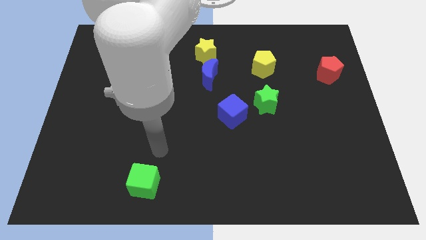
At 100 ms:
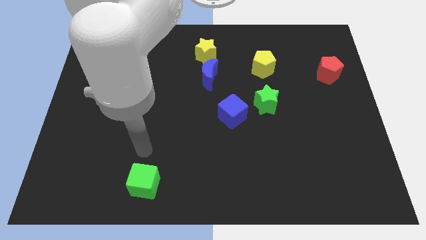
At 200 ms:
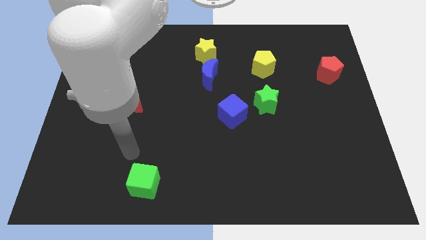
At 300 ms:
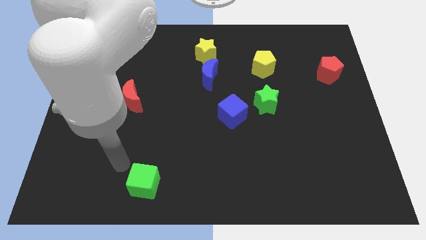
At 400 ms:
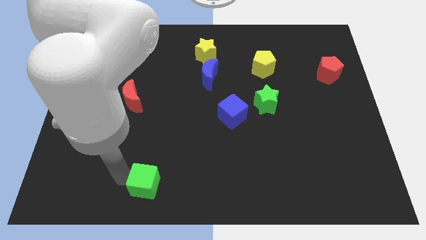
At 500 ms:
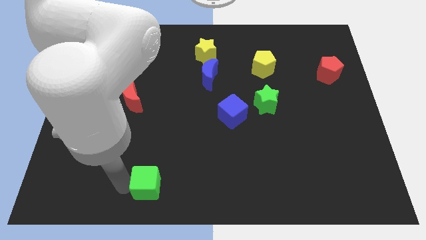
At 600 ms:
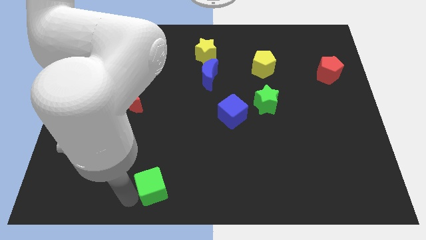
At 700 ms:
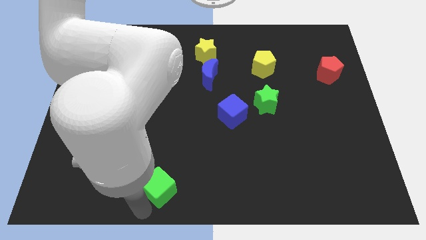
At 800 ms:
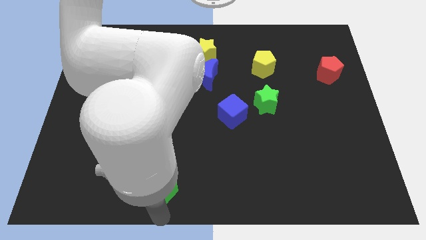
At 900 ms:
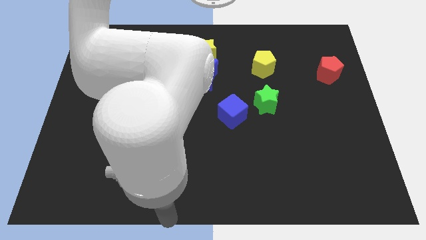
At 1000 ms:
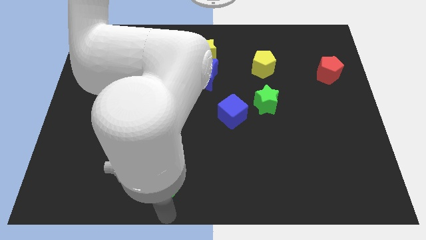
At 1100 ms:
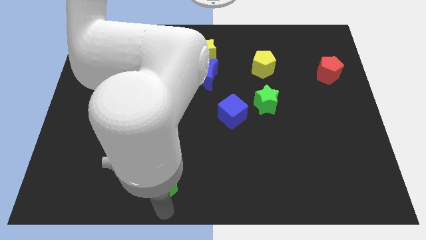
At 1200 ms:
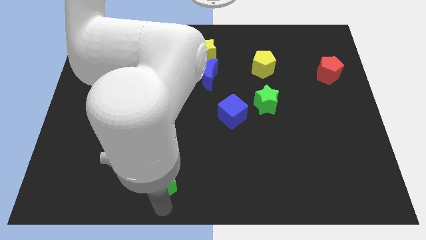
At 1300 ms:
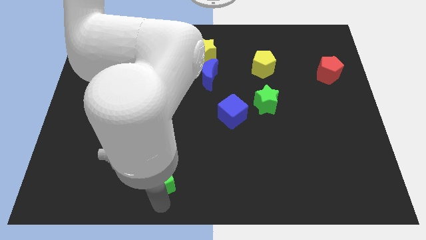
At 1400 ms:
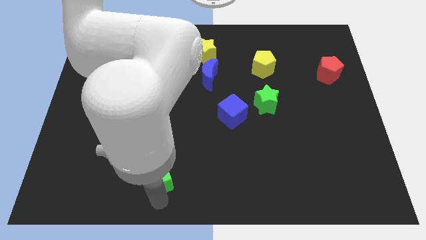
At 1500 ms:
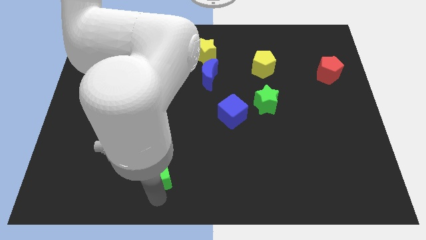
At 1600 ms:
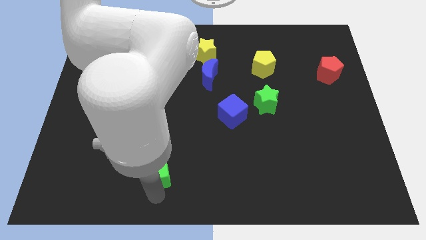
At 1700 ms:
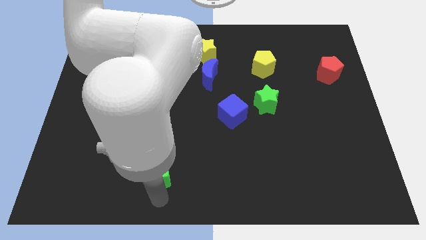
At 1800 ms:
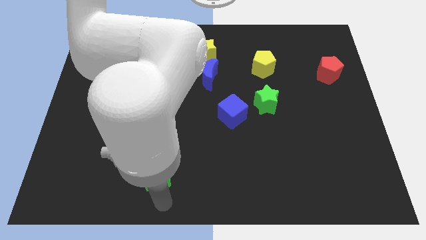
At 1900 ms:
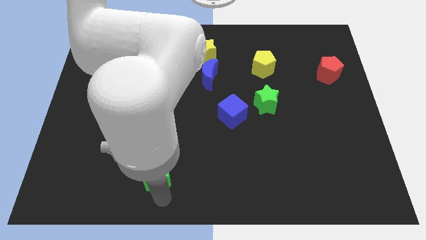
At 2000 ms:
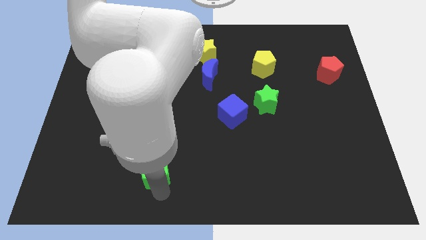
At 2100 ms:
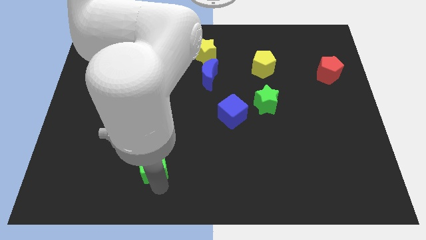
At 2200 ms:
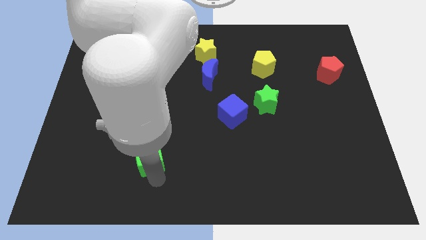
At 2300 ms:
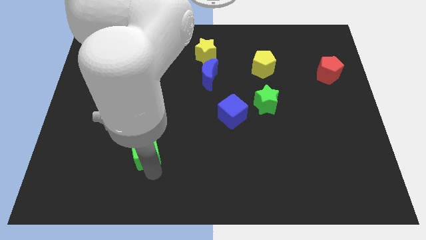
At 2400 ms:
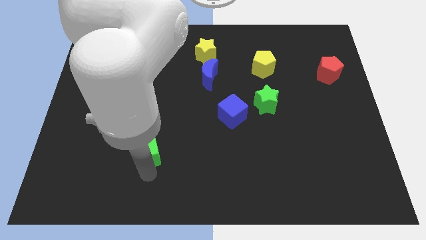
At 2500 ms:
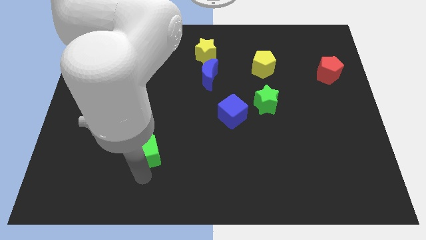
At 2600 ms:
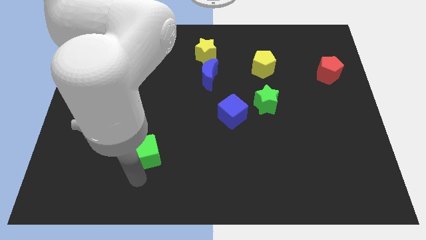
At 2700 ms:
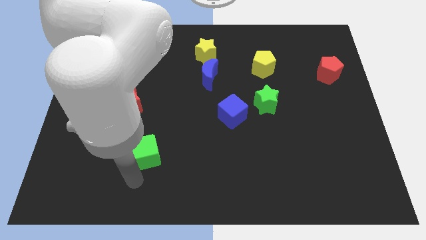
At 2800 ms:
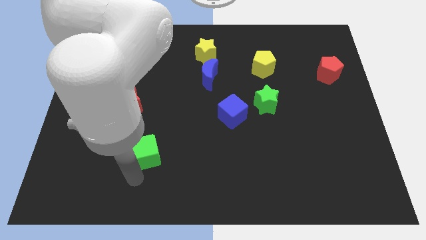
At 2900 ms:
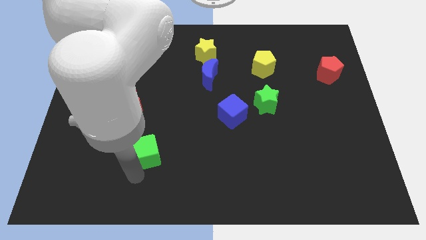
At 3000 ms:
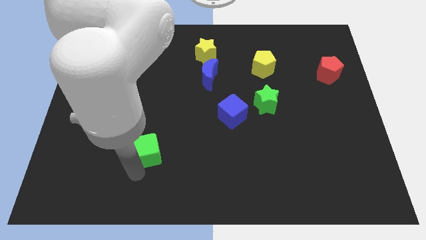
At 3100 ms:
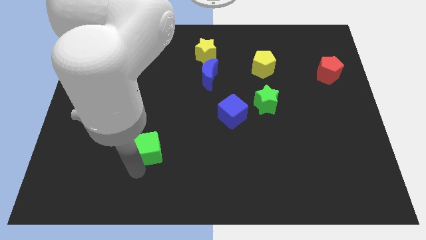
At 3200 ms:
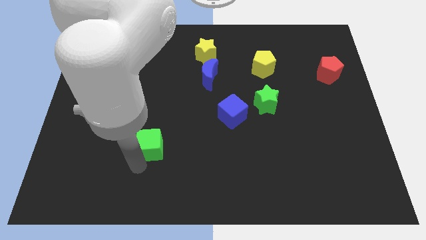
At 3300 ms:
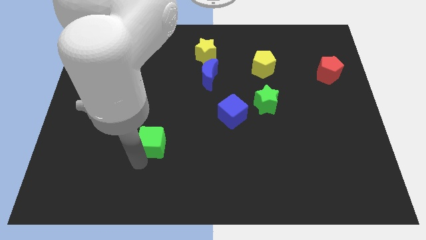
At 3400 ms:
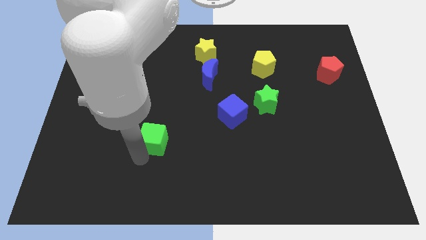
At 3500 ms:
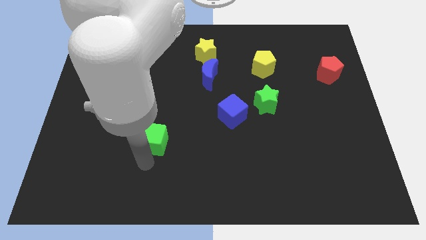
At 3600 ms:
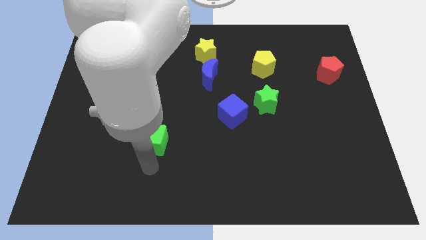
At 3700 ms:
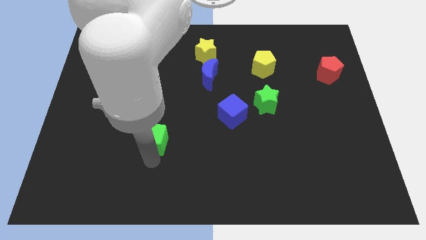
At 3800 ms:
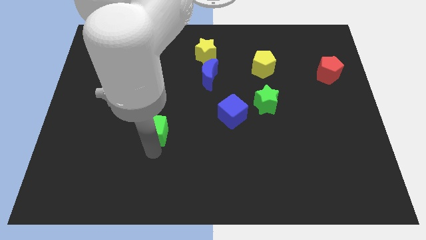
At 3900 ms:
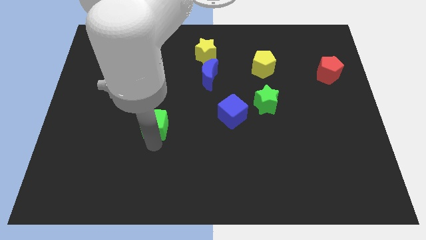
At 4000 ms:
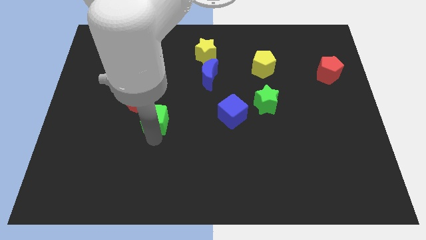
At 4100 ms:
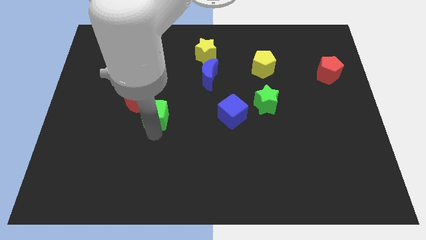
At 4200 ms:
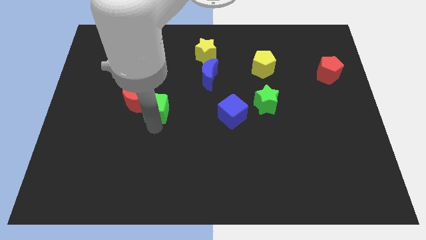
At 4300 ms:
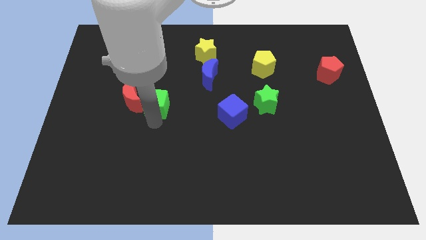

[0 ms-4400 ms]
push the green cube up

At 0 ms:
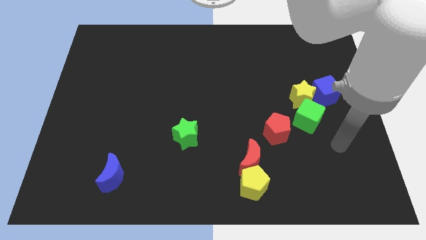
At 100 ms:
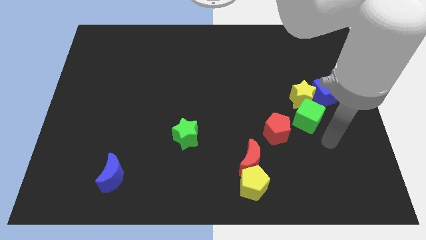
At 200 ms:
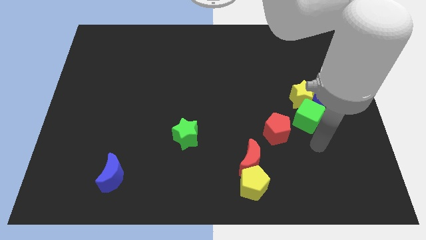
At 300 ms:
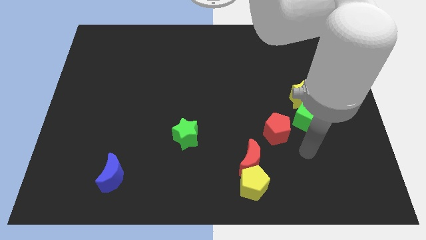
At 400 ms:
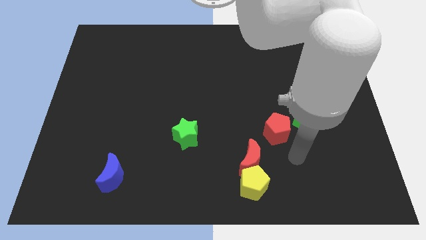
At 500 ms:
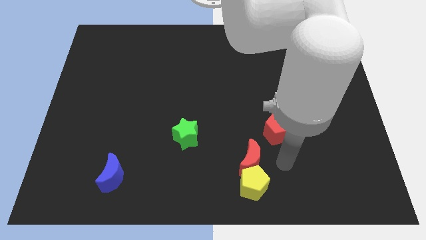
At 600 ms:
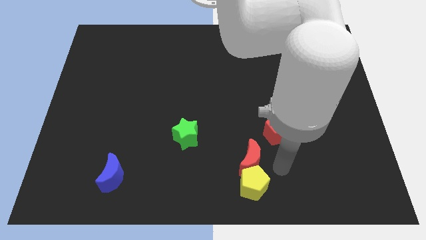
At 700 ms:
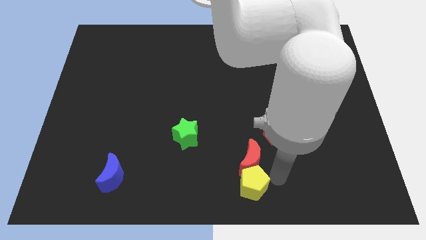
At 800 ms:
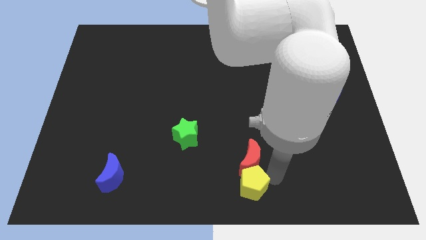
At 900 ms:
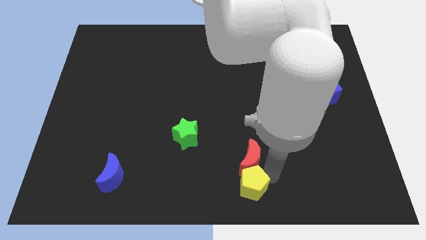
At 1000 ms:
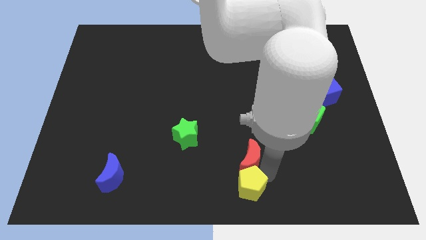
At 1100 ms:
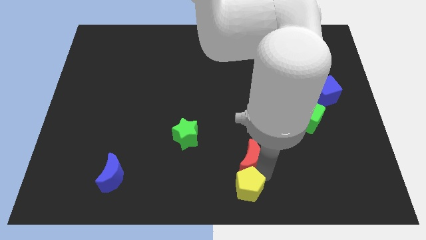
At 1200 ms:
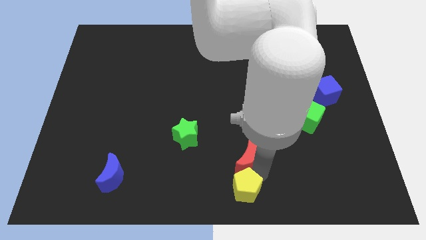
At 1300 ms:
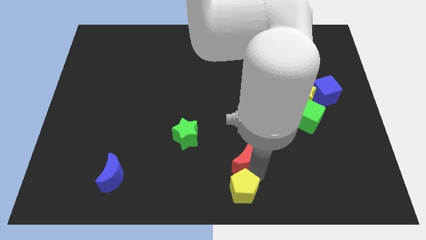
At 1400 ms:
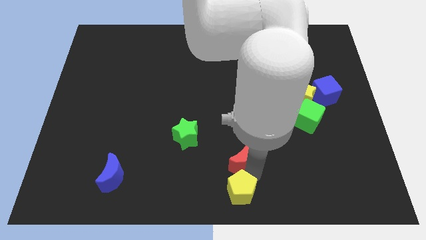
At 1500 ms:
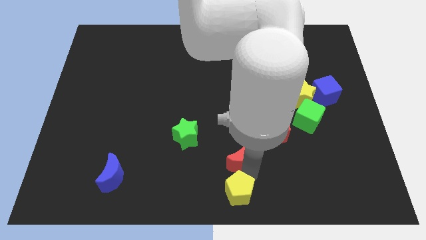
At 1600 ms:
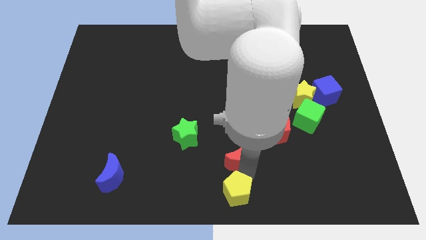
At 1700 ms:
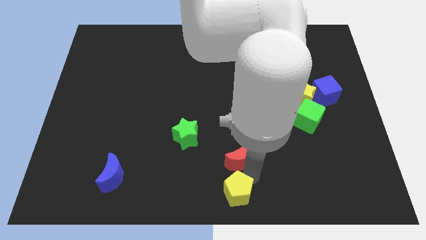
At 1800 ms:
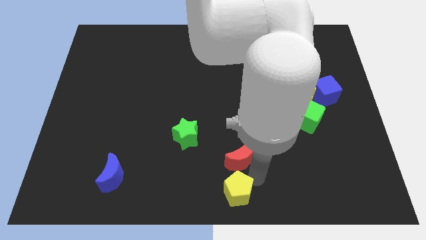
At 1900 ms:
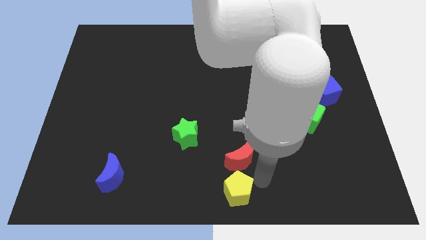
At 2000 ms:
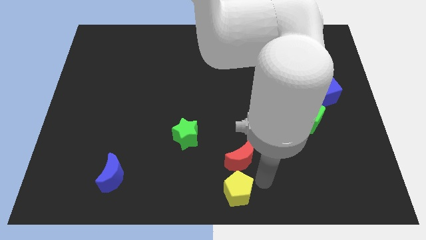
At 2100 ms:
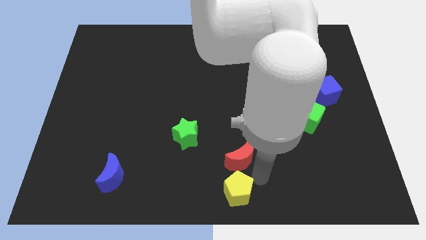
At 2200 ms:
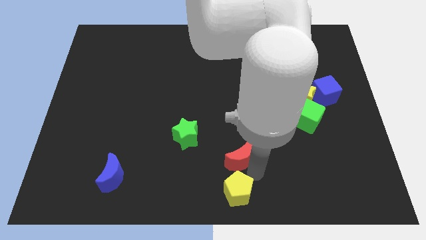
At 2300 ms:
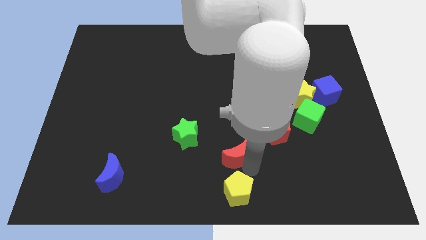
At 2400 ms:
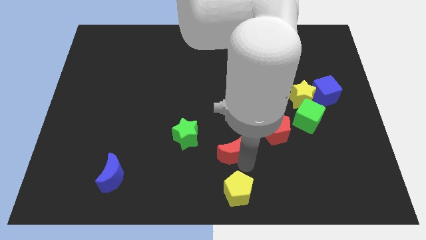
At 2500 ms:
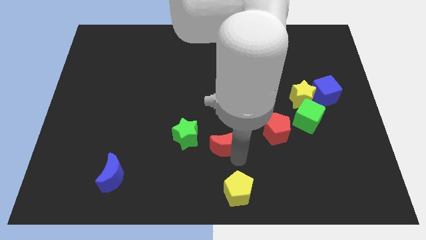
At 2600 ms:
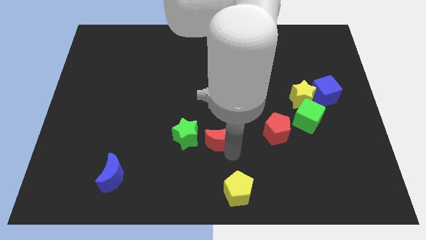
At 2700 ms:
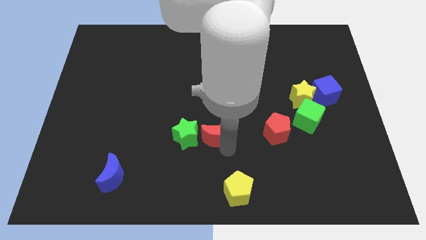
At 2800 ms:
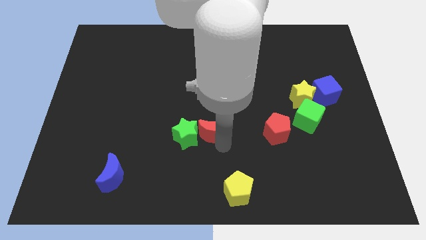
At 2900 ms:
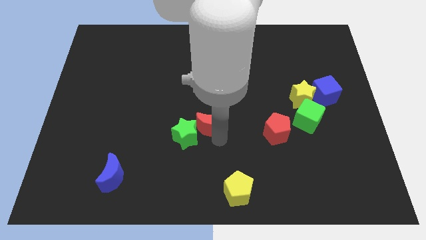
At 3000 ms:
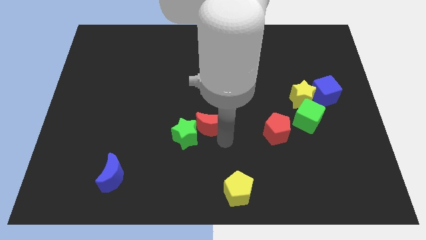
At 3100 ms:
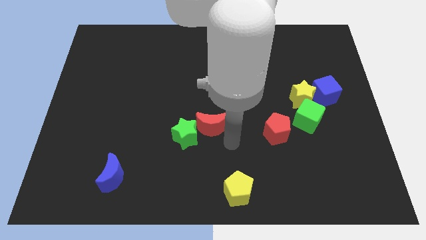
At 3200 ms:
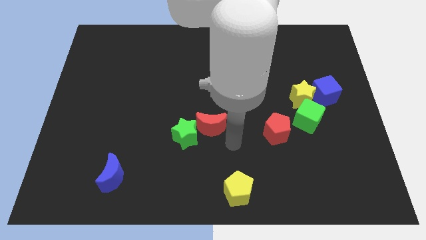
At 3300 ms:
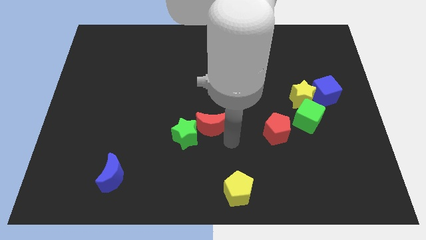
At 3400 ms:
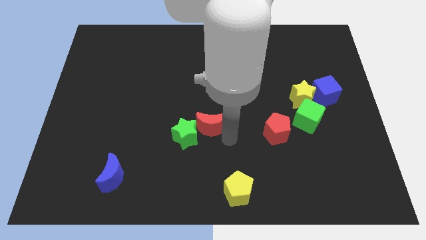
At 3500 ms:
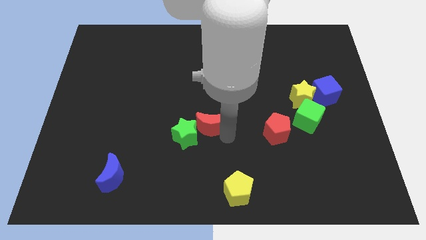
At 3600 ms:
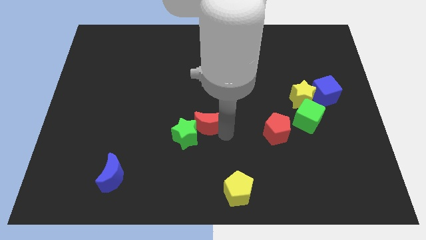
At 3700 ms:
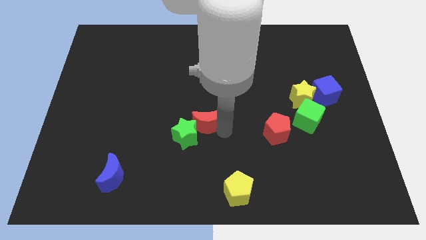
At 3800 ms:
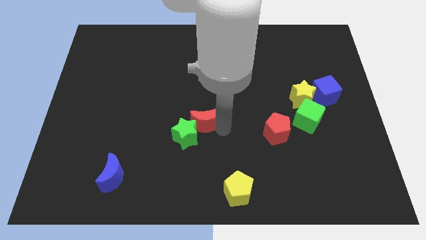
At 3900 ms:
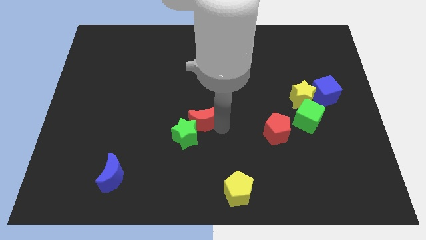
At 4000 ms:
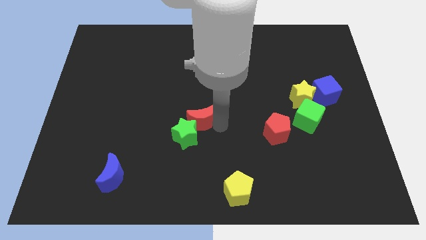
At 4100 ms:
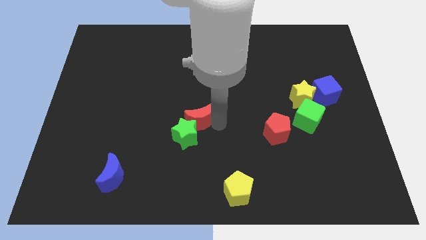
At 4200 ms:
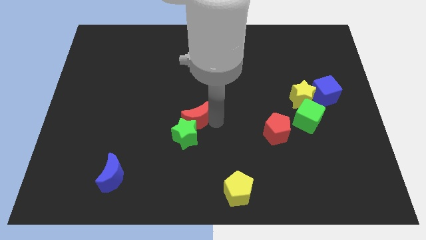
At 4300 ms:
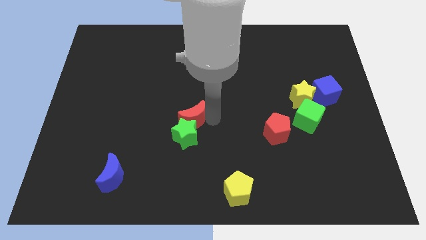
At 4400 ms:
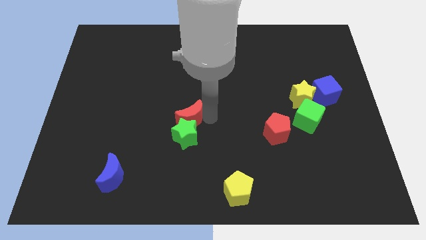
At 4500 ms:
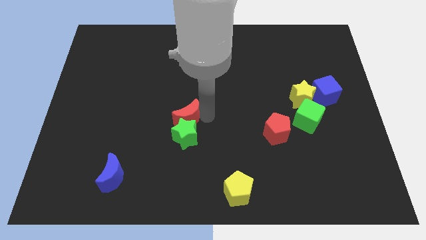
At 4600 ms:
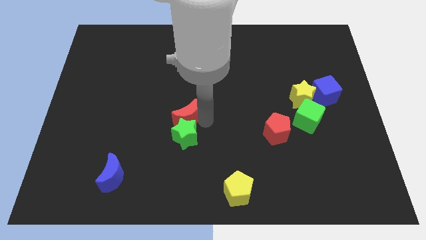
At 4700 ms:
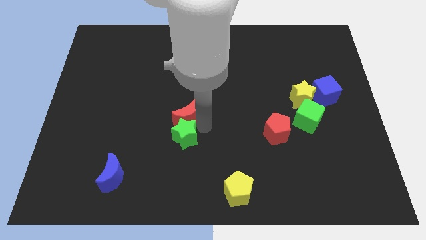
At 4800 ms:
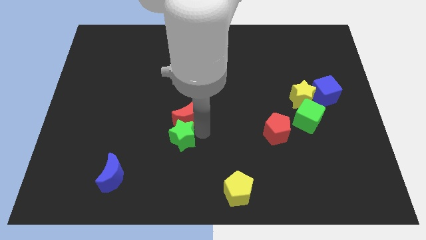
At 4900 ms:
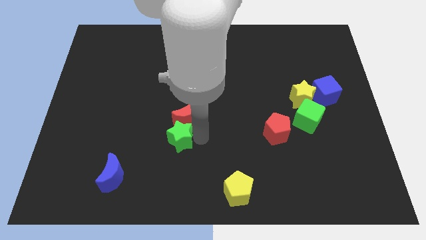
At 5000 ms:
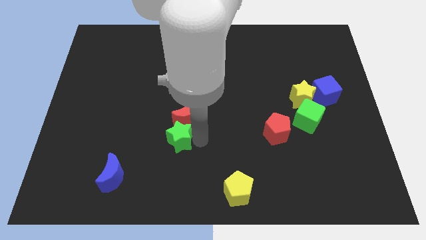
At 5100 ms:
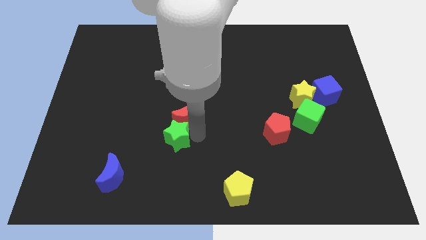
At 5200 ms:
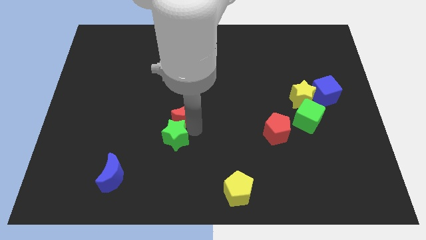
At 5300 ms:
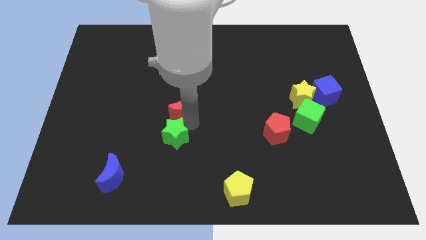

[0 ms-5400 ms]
push the red moon upwards and then left
